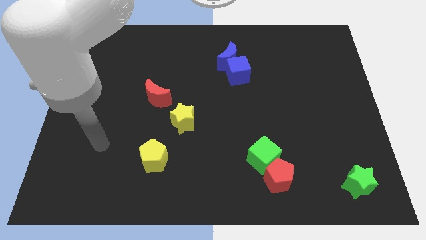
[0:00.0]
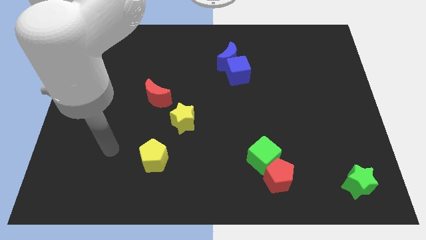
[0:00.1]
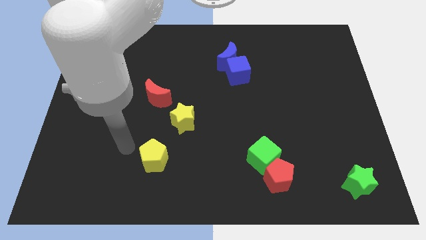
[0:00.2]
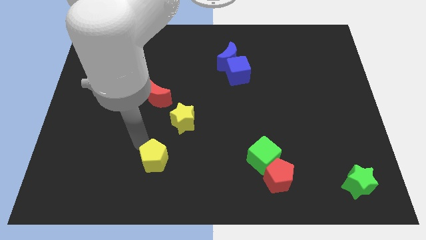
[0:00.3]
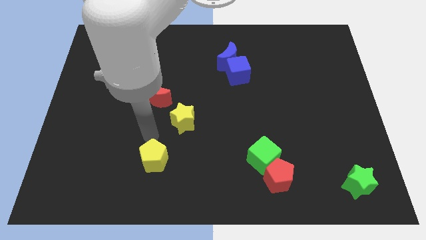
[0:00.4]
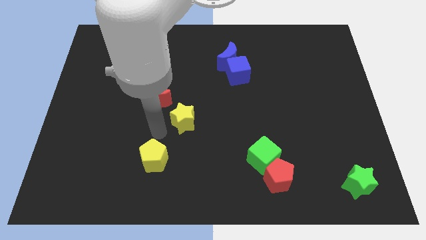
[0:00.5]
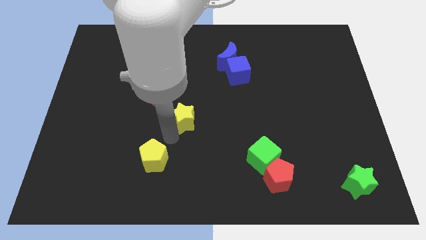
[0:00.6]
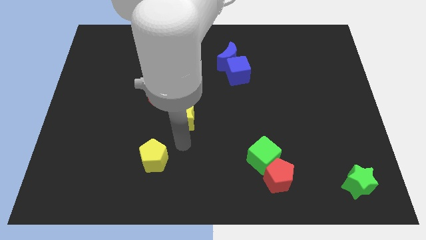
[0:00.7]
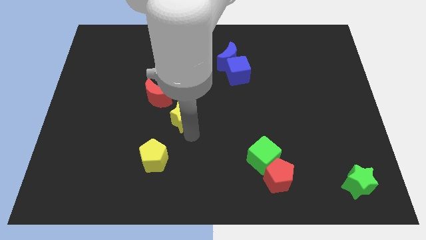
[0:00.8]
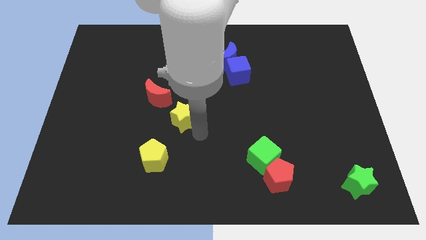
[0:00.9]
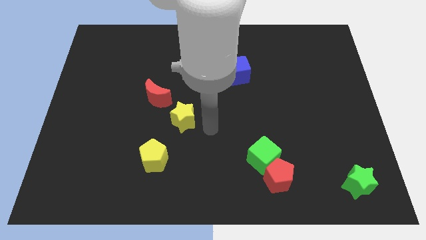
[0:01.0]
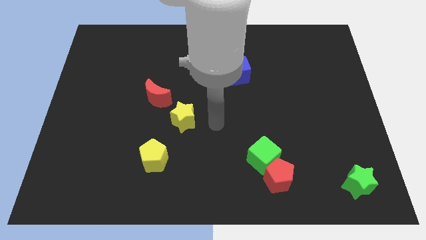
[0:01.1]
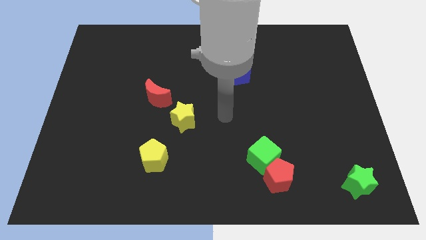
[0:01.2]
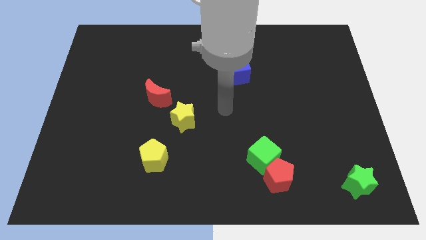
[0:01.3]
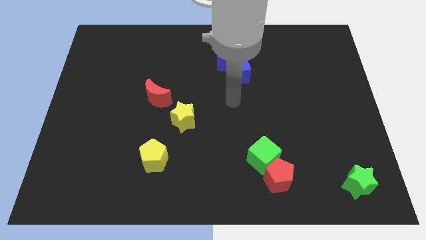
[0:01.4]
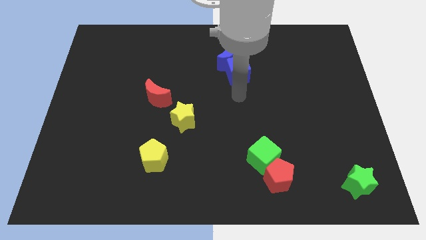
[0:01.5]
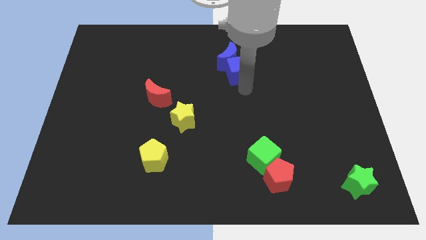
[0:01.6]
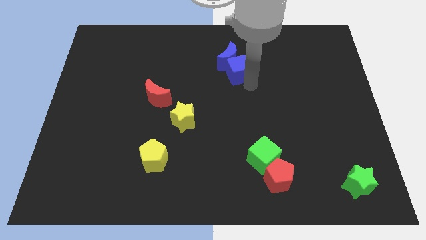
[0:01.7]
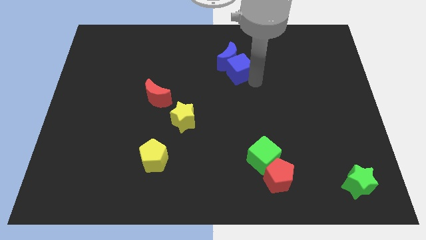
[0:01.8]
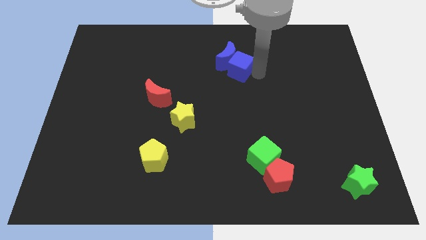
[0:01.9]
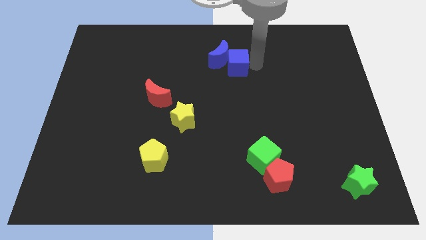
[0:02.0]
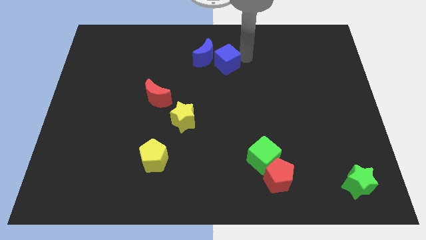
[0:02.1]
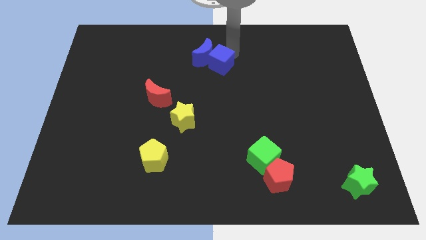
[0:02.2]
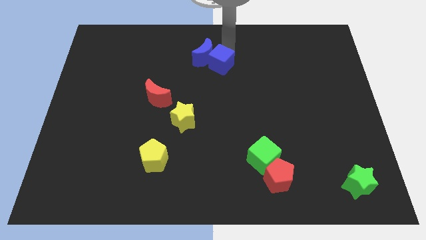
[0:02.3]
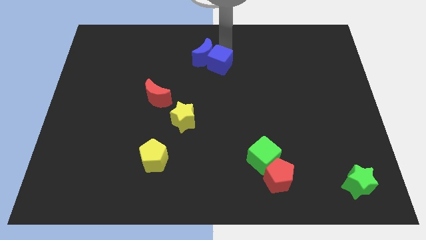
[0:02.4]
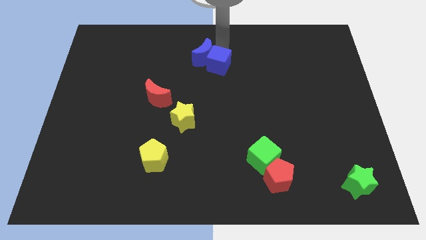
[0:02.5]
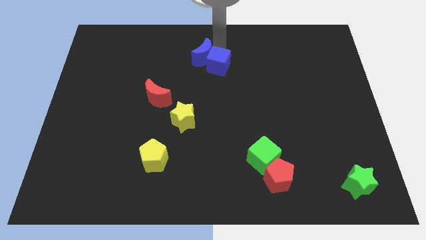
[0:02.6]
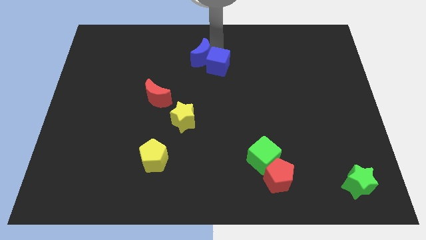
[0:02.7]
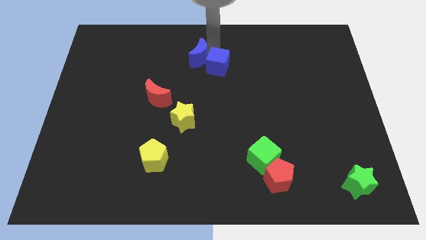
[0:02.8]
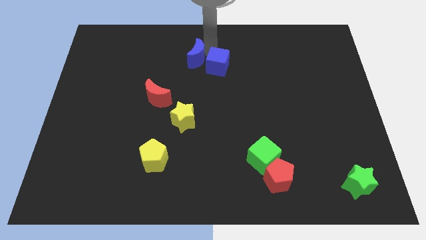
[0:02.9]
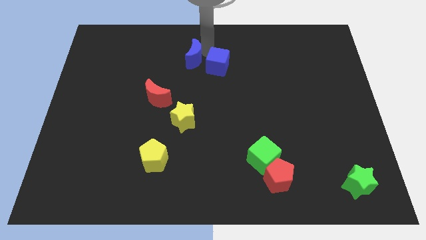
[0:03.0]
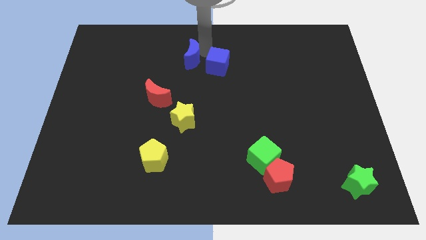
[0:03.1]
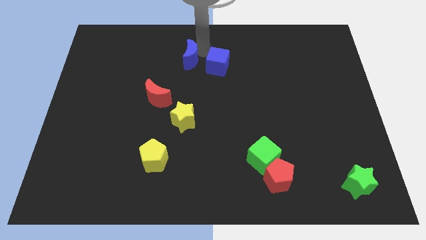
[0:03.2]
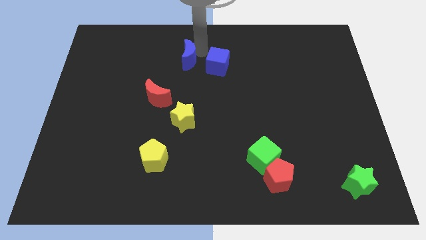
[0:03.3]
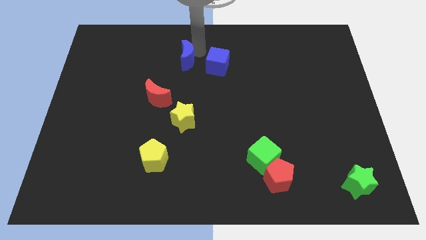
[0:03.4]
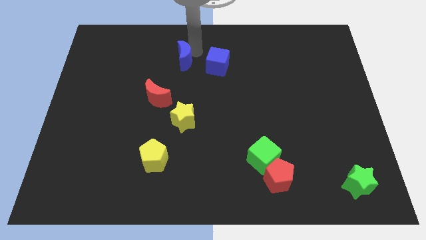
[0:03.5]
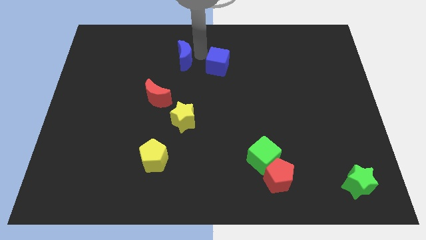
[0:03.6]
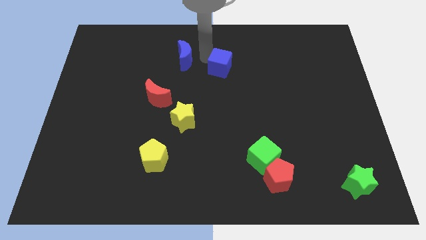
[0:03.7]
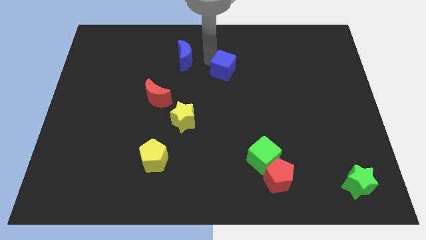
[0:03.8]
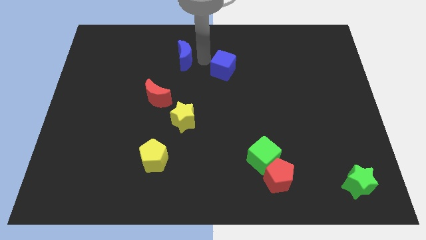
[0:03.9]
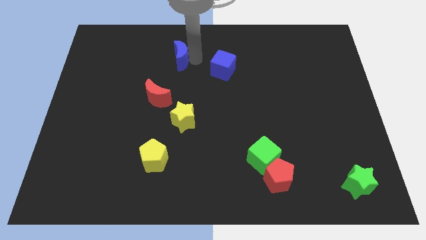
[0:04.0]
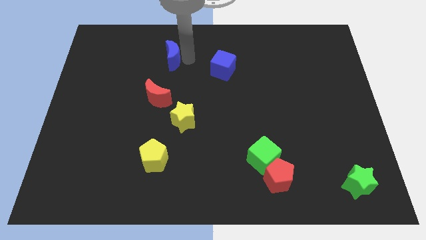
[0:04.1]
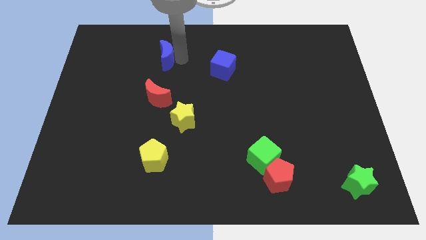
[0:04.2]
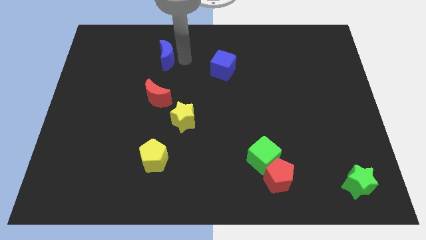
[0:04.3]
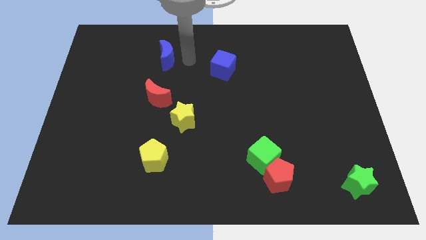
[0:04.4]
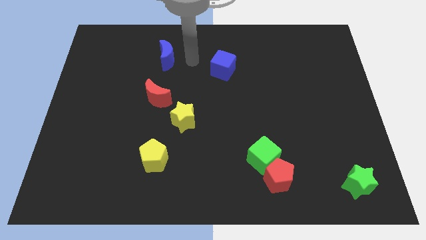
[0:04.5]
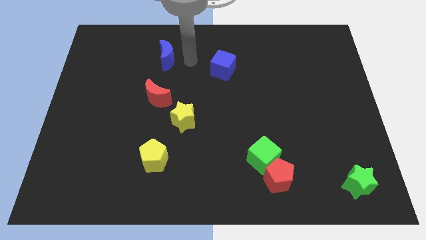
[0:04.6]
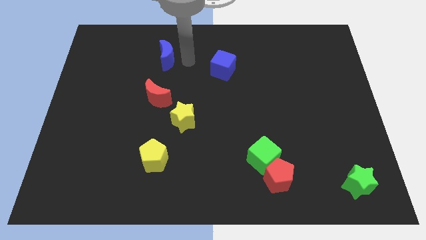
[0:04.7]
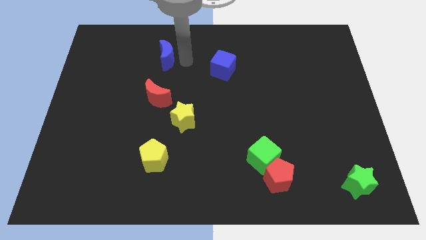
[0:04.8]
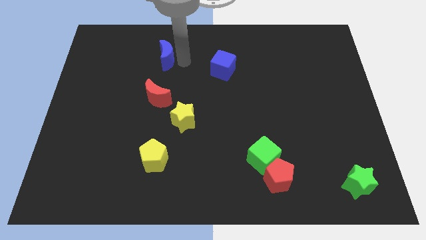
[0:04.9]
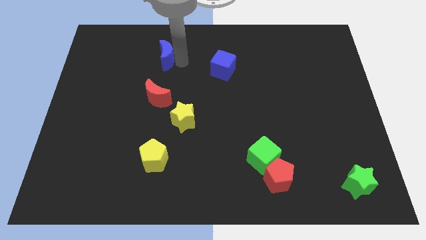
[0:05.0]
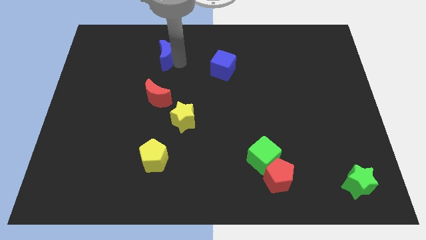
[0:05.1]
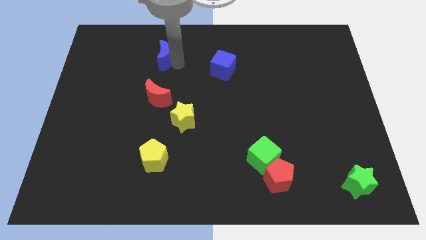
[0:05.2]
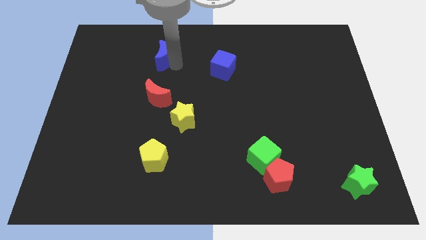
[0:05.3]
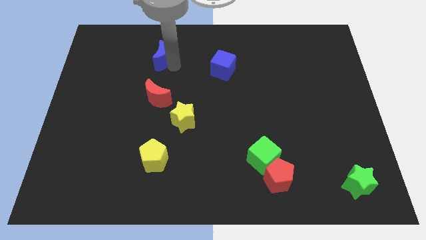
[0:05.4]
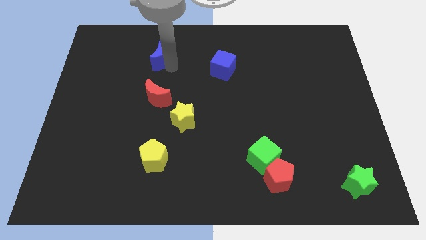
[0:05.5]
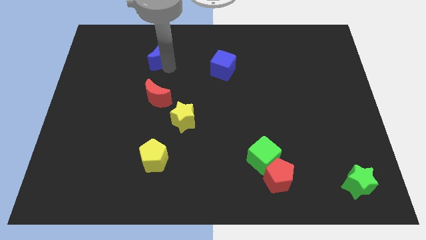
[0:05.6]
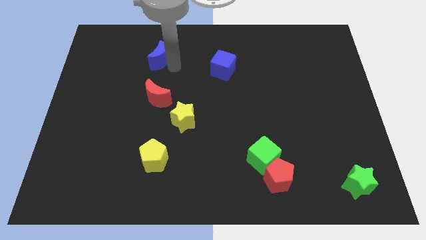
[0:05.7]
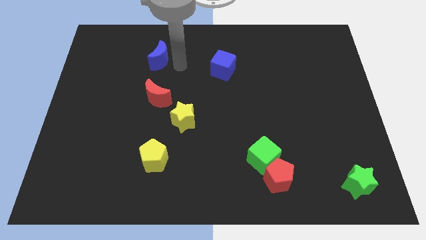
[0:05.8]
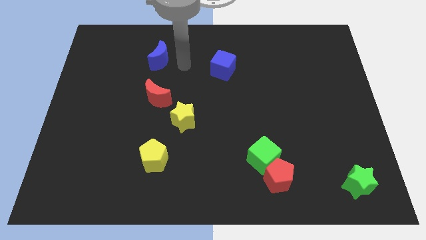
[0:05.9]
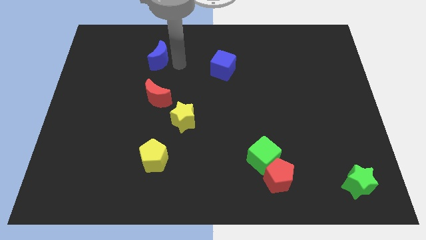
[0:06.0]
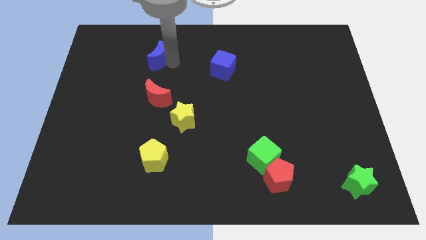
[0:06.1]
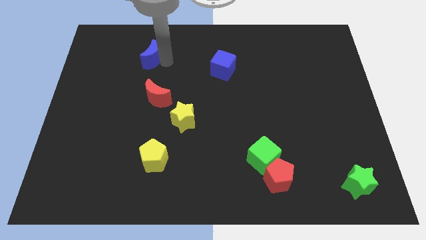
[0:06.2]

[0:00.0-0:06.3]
move the blue moon to the left

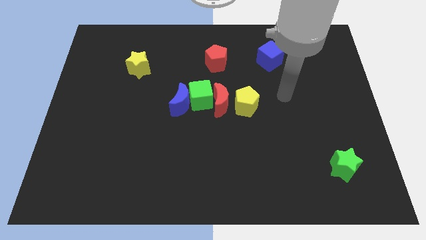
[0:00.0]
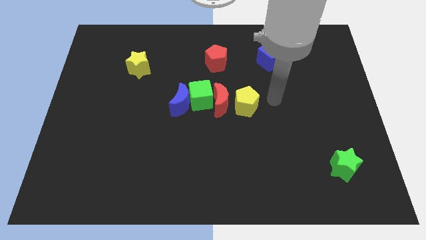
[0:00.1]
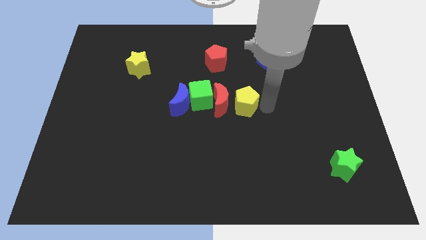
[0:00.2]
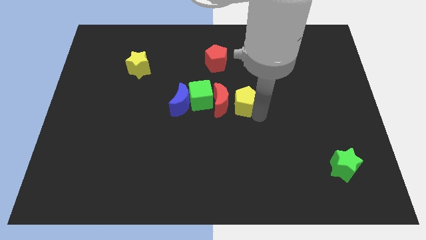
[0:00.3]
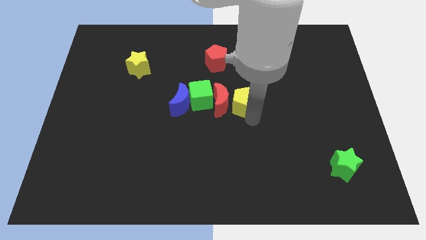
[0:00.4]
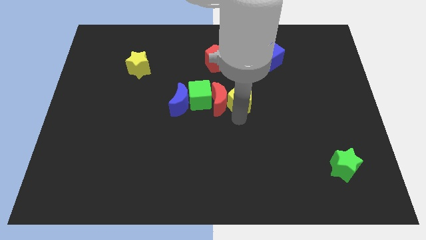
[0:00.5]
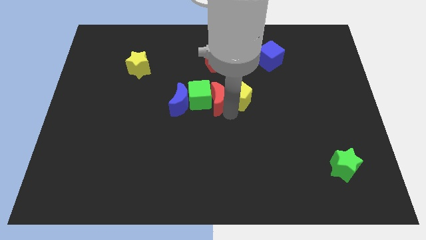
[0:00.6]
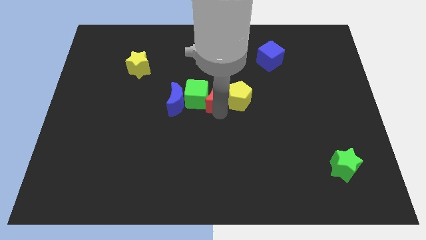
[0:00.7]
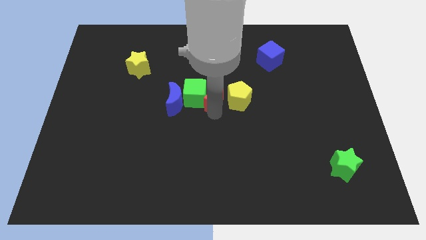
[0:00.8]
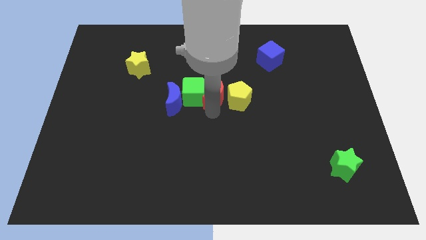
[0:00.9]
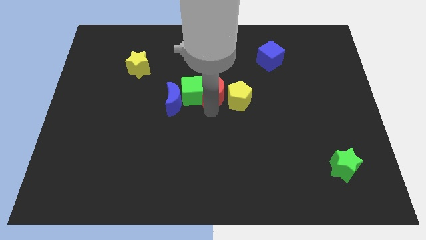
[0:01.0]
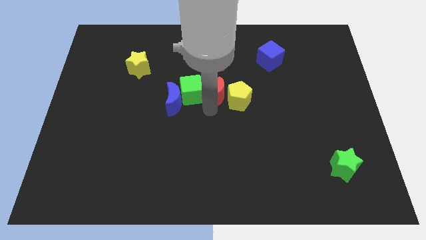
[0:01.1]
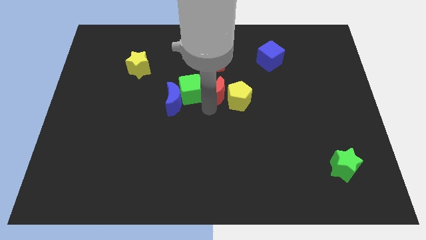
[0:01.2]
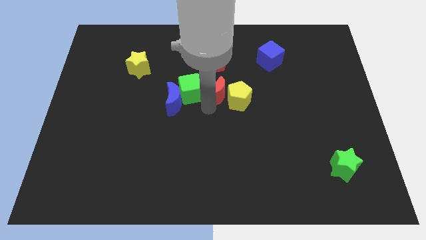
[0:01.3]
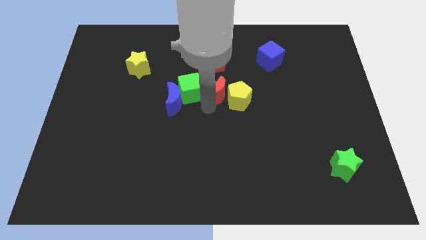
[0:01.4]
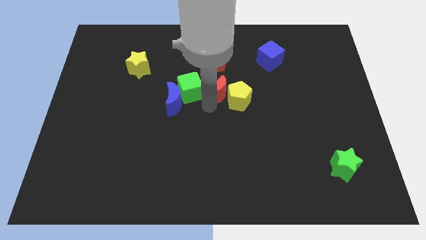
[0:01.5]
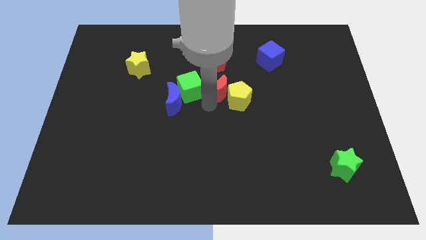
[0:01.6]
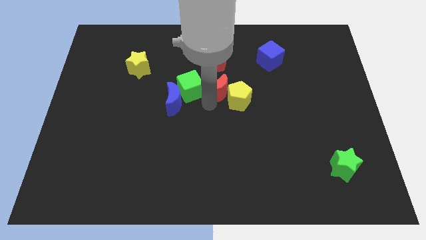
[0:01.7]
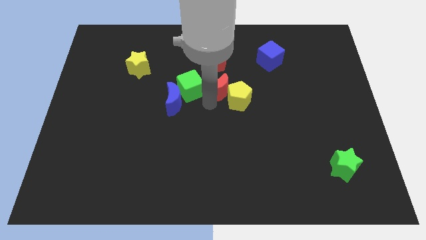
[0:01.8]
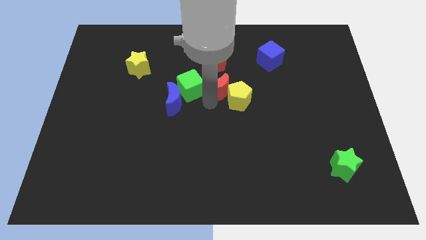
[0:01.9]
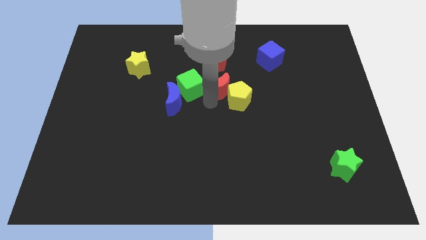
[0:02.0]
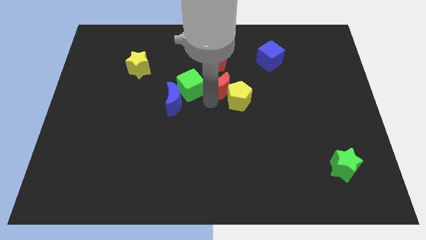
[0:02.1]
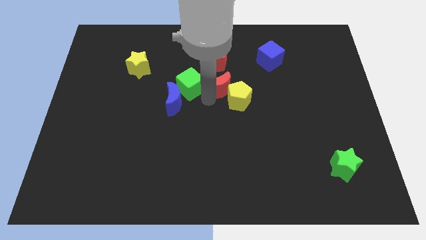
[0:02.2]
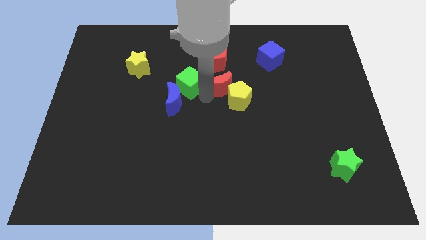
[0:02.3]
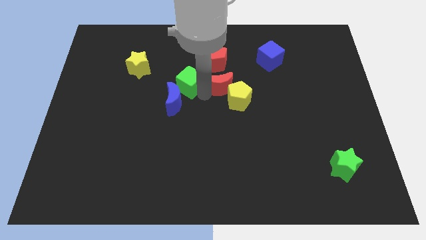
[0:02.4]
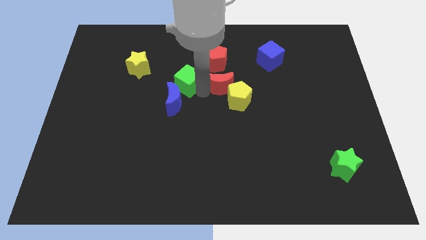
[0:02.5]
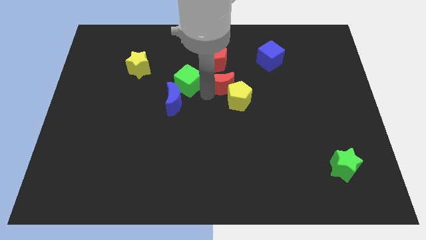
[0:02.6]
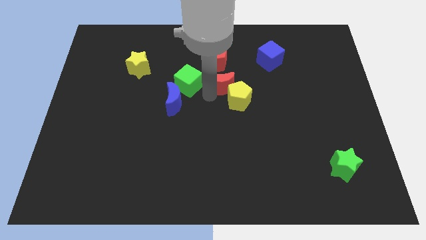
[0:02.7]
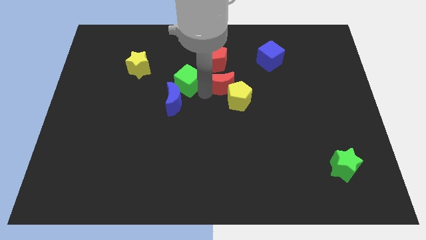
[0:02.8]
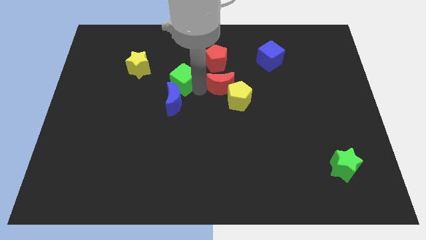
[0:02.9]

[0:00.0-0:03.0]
move the green cube up and then left a bit
